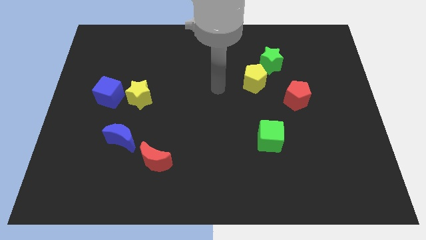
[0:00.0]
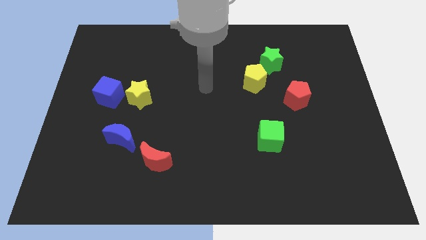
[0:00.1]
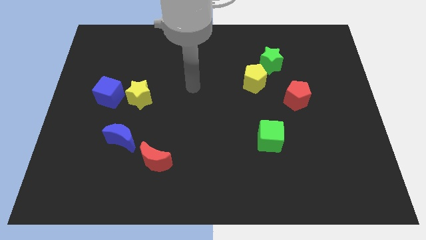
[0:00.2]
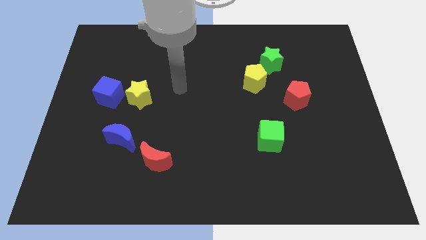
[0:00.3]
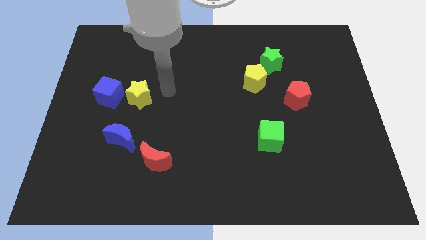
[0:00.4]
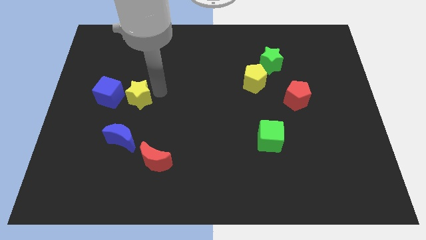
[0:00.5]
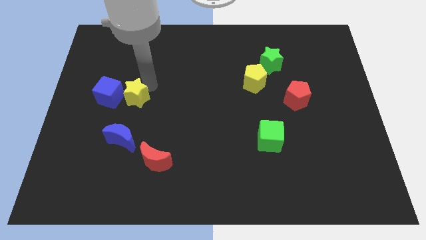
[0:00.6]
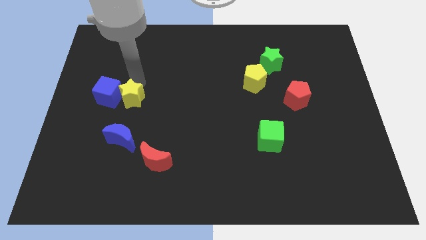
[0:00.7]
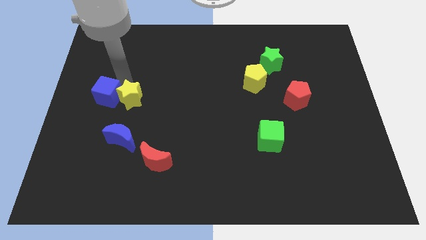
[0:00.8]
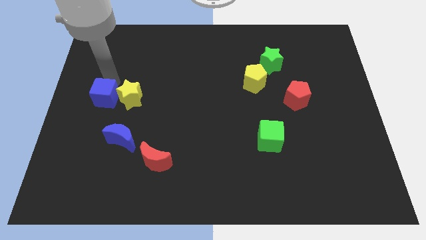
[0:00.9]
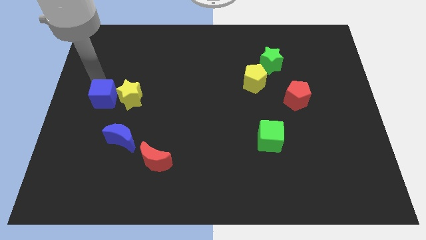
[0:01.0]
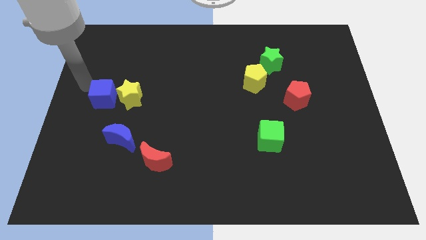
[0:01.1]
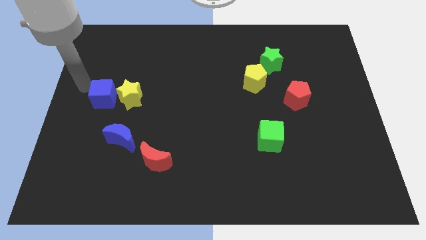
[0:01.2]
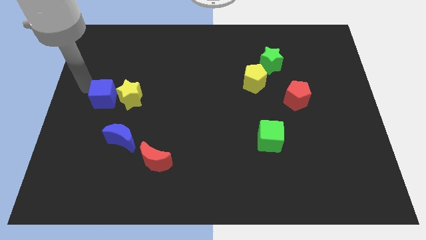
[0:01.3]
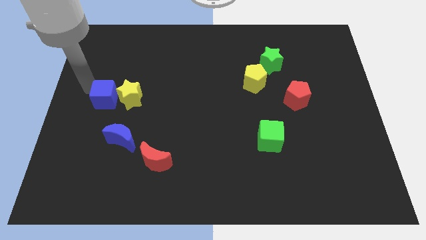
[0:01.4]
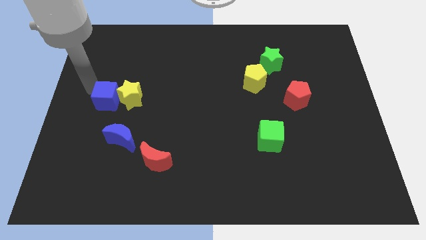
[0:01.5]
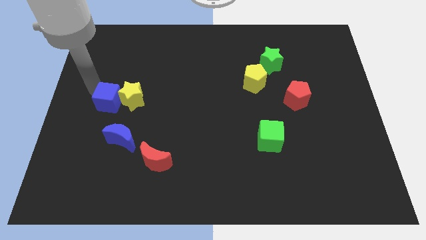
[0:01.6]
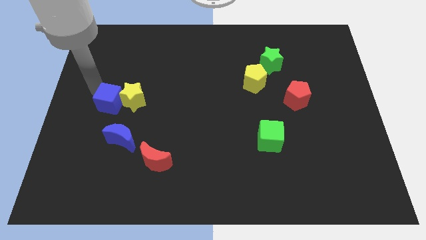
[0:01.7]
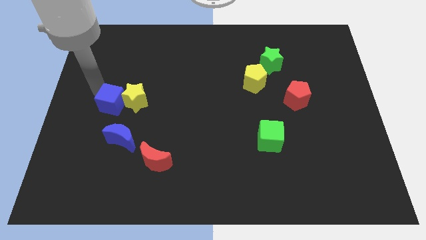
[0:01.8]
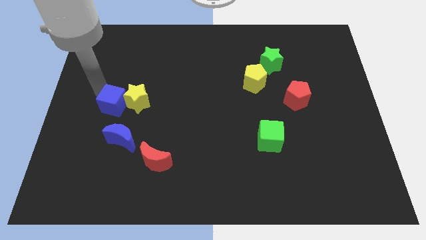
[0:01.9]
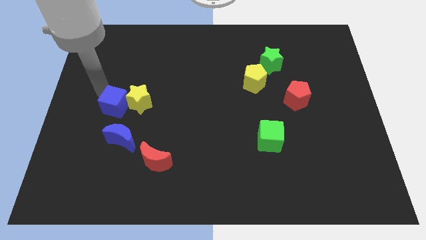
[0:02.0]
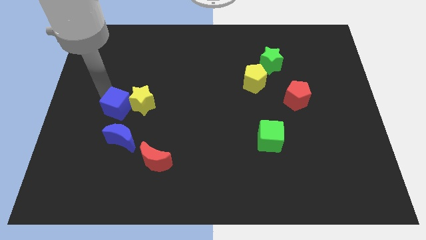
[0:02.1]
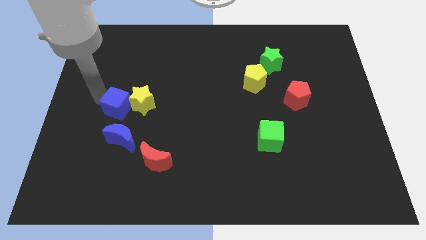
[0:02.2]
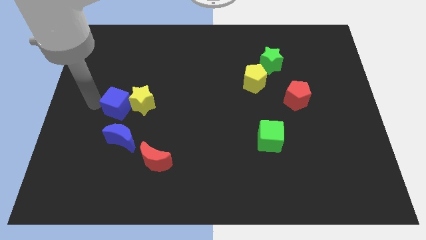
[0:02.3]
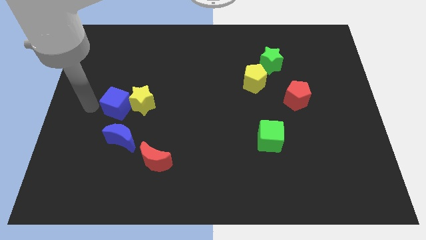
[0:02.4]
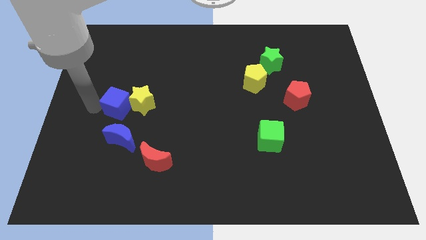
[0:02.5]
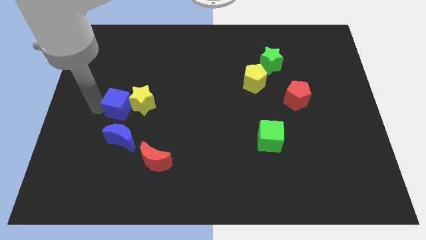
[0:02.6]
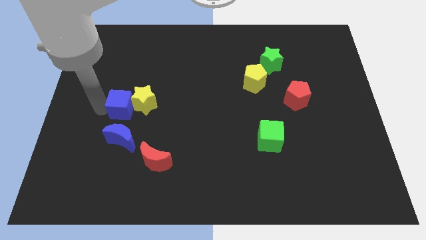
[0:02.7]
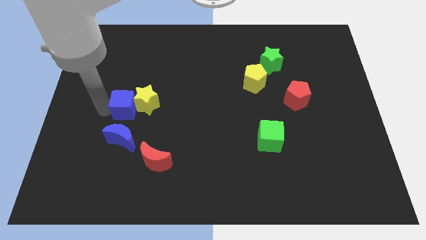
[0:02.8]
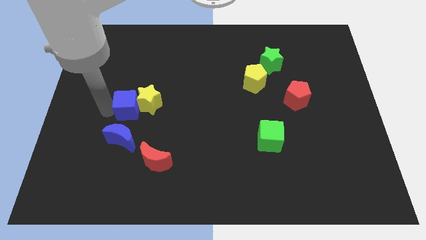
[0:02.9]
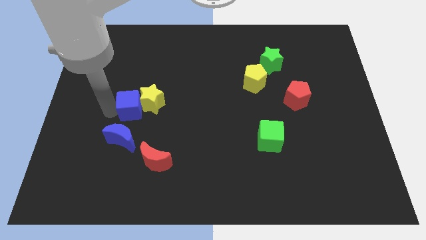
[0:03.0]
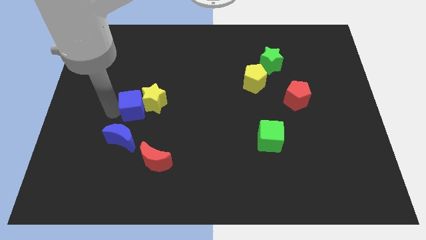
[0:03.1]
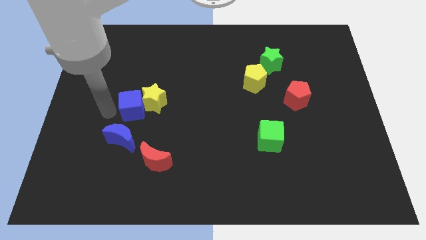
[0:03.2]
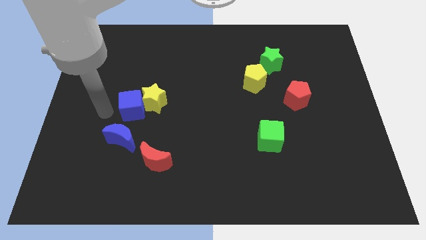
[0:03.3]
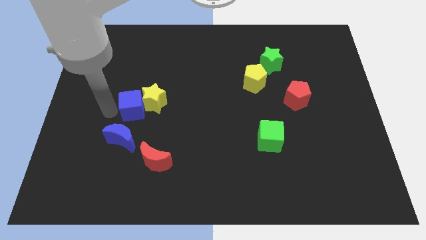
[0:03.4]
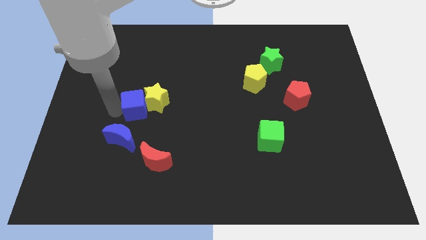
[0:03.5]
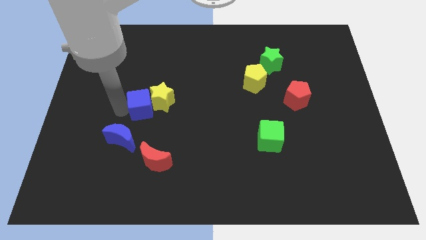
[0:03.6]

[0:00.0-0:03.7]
slightly move the blue cube to the right

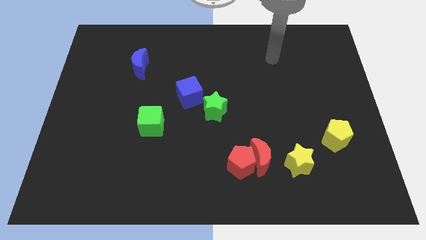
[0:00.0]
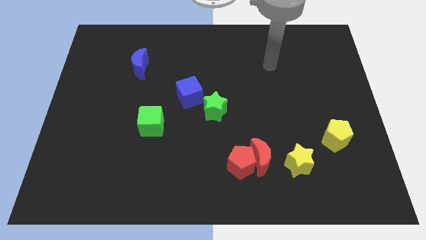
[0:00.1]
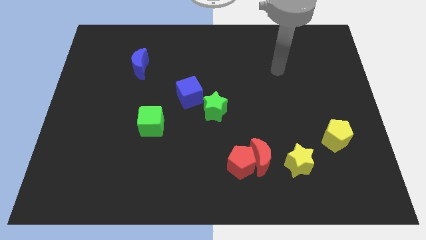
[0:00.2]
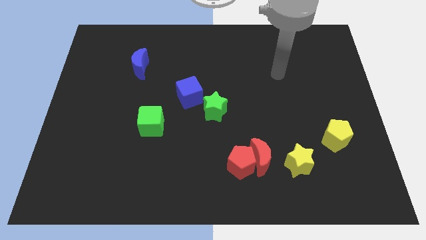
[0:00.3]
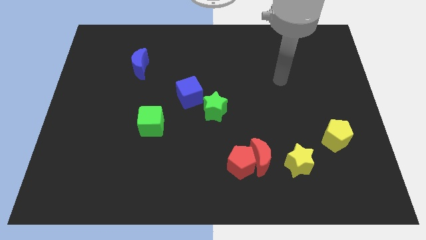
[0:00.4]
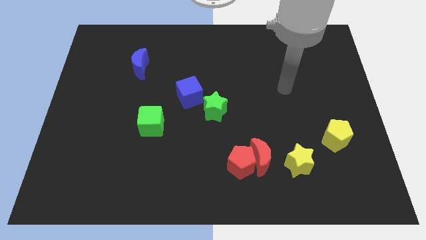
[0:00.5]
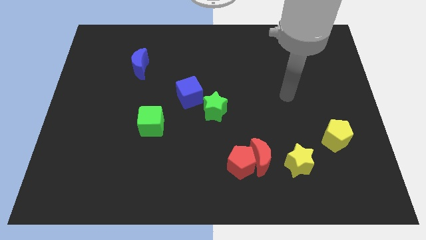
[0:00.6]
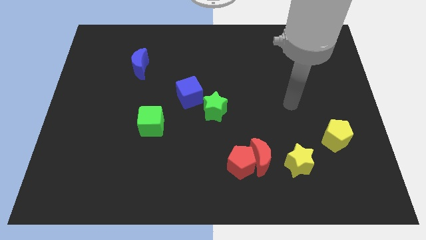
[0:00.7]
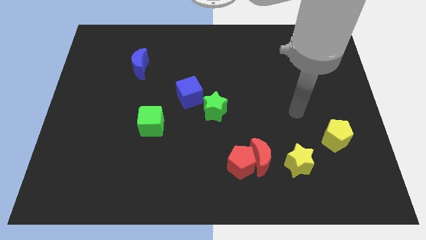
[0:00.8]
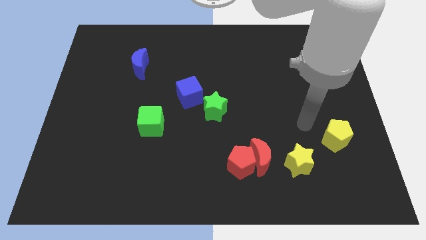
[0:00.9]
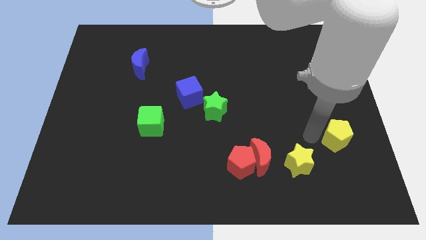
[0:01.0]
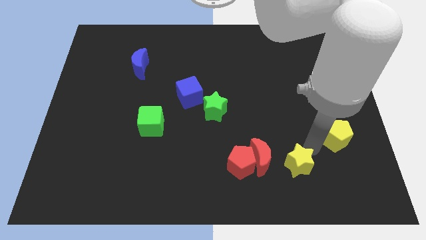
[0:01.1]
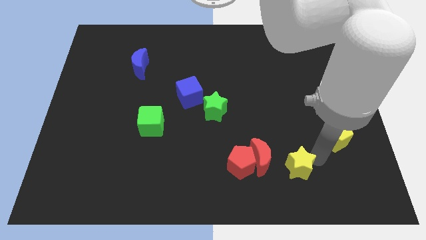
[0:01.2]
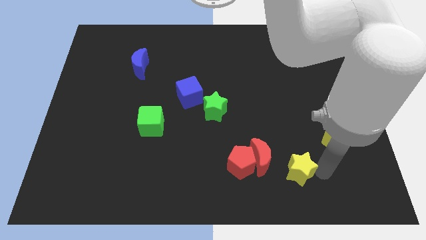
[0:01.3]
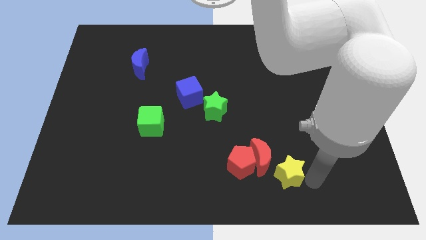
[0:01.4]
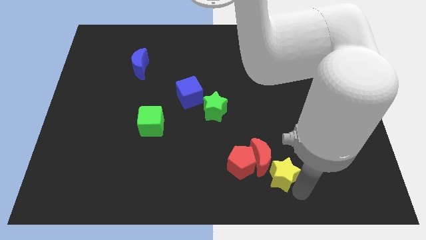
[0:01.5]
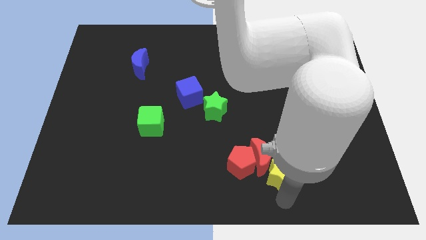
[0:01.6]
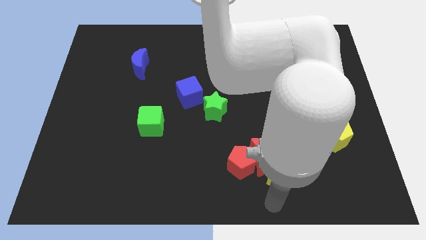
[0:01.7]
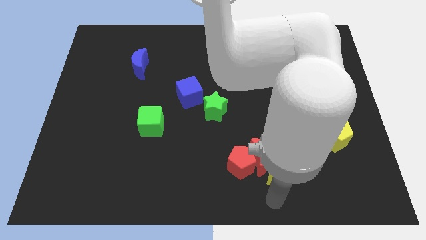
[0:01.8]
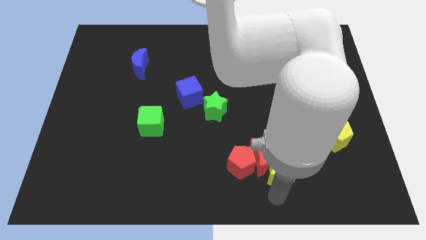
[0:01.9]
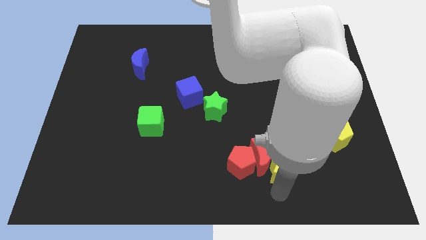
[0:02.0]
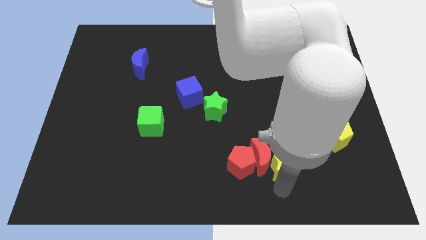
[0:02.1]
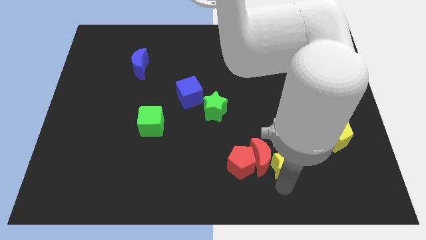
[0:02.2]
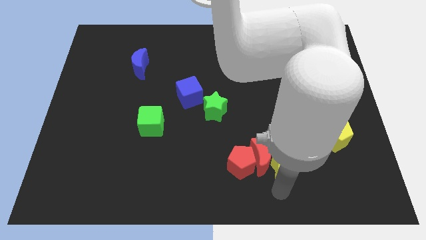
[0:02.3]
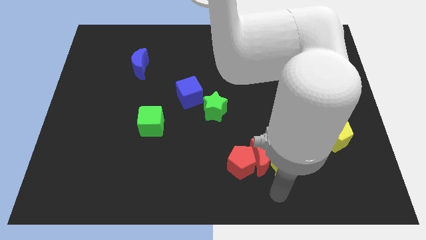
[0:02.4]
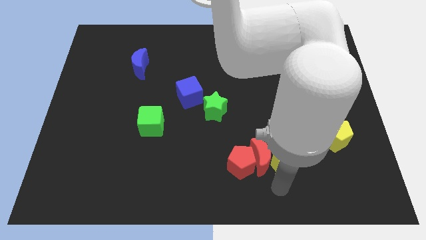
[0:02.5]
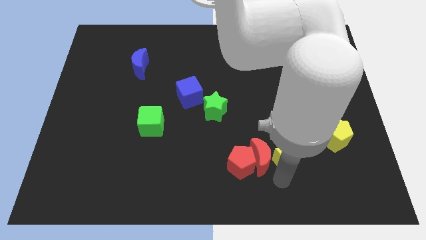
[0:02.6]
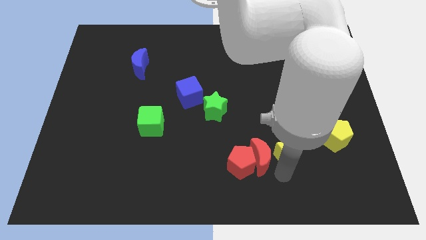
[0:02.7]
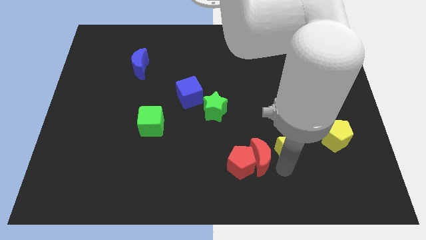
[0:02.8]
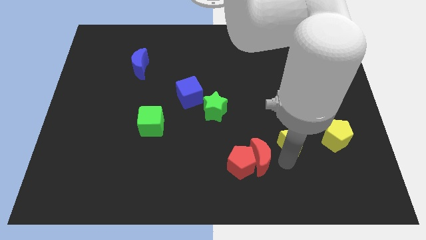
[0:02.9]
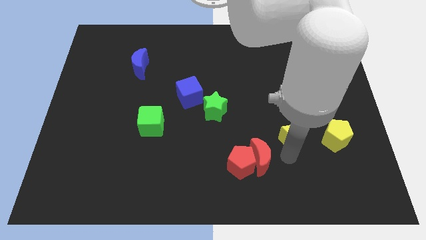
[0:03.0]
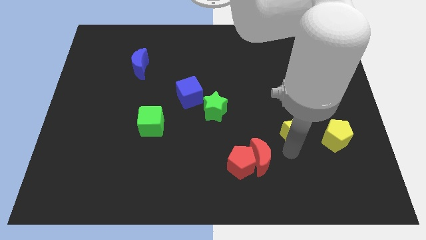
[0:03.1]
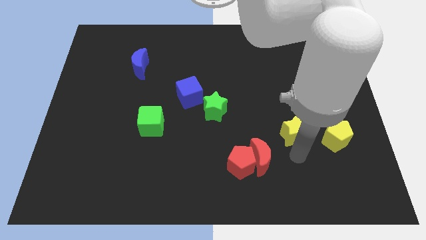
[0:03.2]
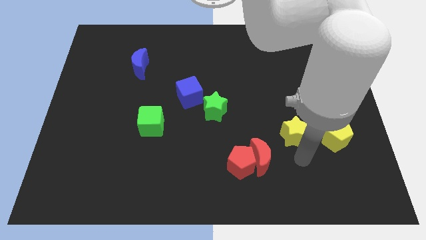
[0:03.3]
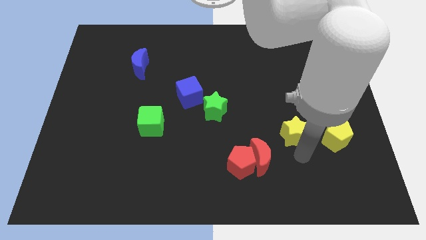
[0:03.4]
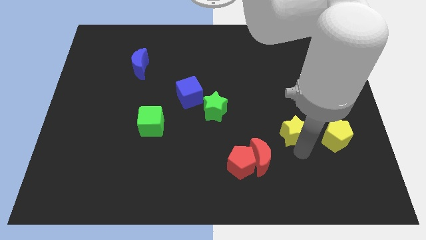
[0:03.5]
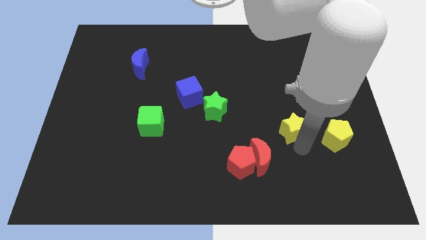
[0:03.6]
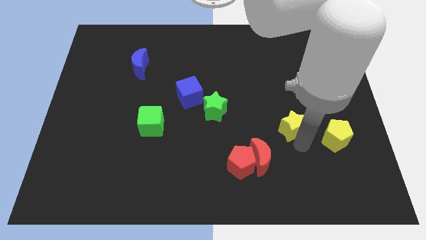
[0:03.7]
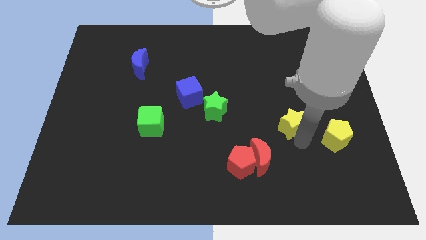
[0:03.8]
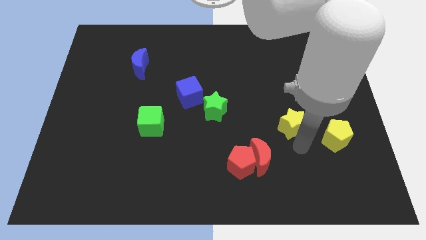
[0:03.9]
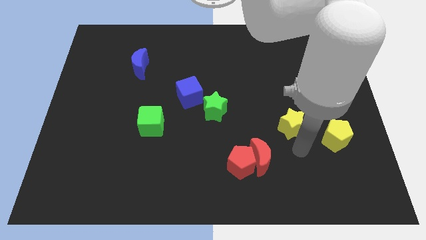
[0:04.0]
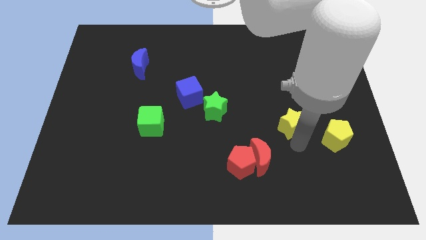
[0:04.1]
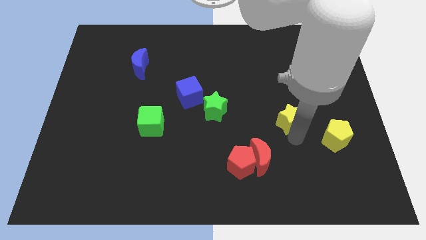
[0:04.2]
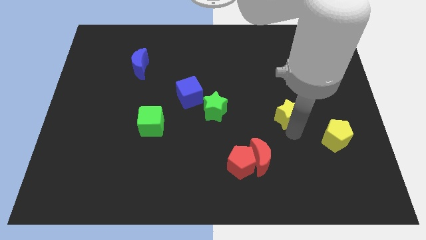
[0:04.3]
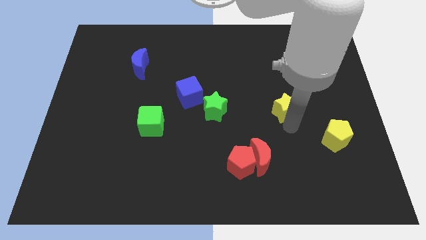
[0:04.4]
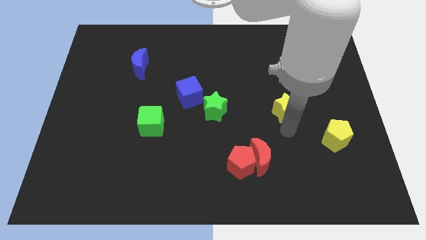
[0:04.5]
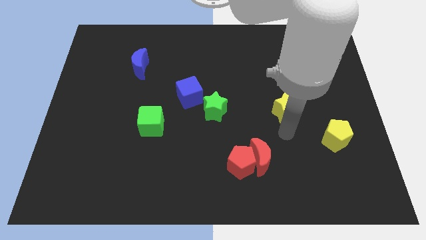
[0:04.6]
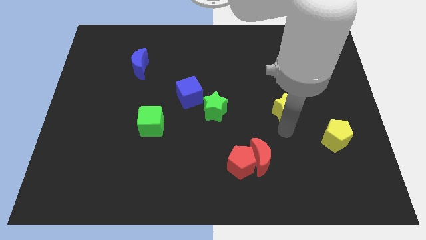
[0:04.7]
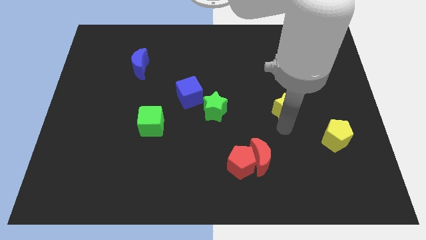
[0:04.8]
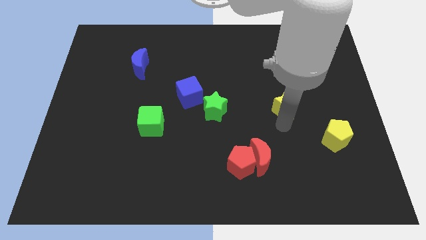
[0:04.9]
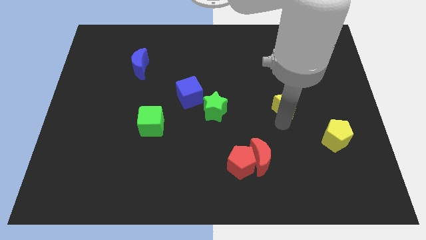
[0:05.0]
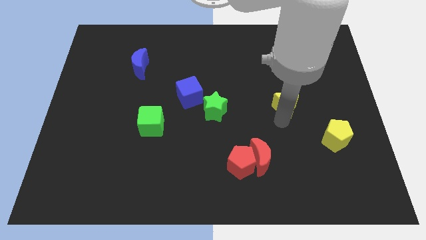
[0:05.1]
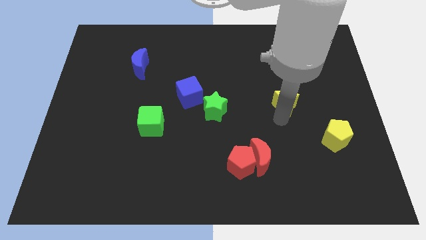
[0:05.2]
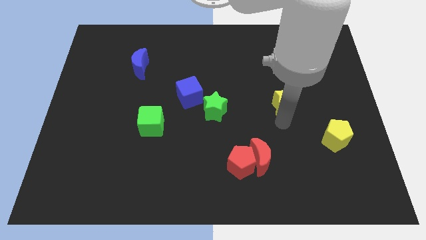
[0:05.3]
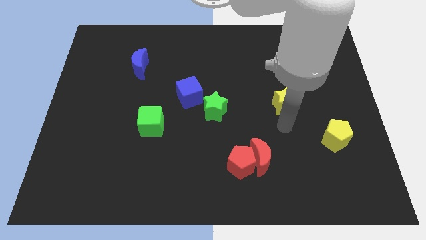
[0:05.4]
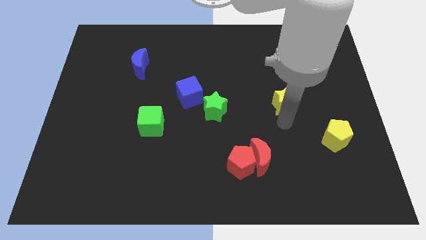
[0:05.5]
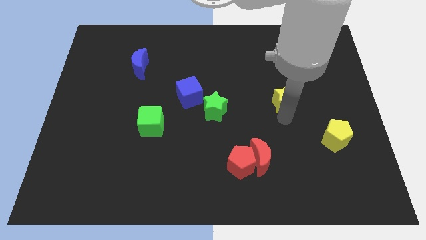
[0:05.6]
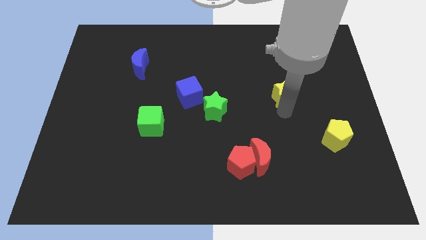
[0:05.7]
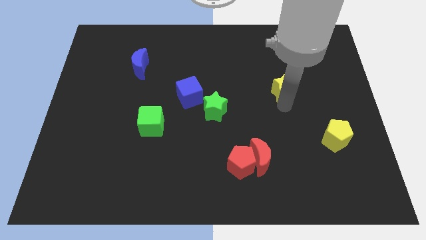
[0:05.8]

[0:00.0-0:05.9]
push the yellow star upwards
